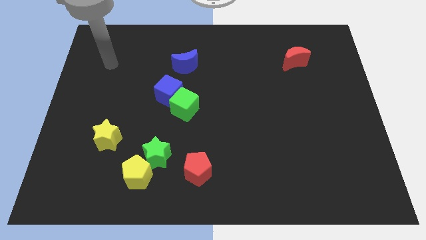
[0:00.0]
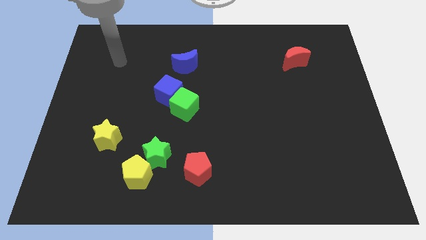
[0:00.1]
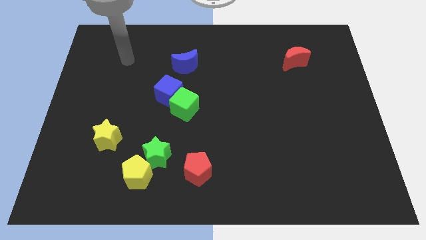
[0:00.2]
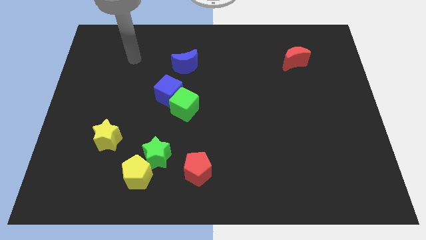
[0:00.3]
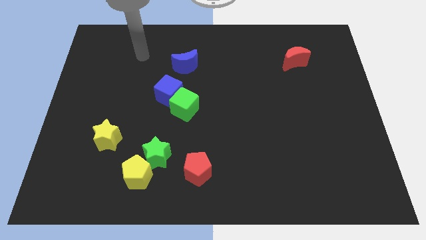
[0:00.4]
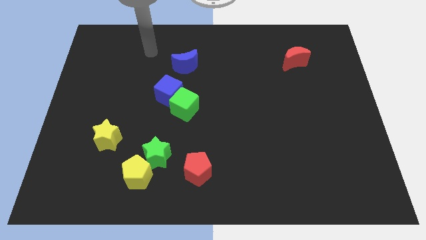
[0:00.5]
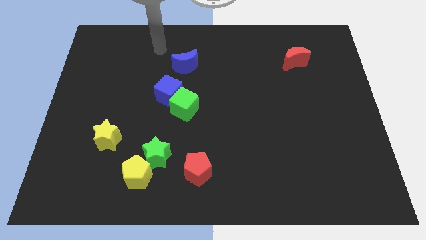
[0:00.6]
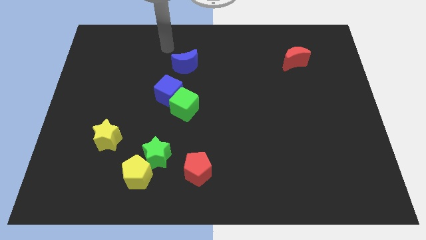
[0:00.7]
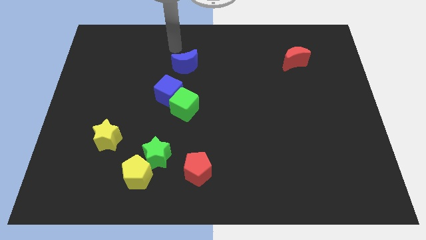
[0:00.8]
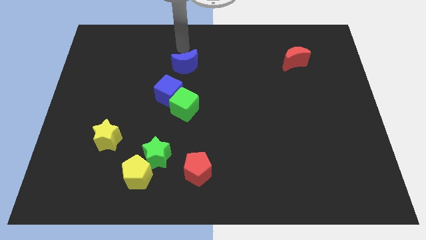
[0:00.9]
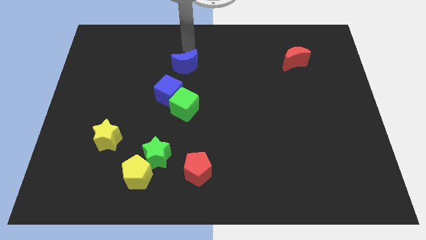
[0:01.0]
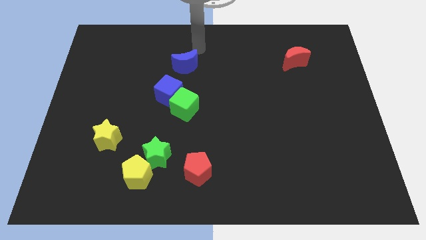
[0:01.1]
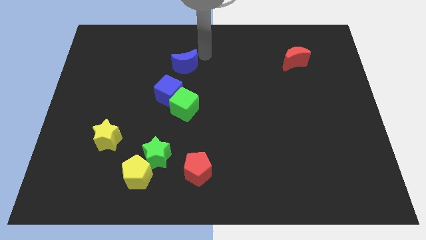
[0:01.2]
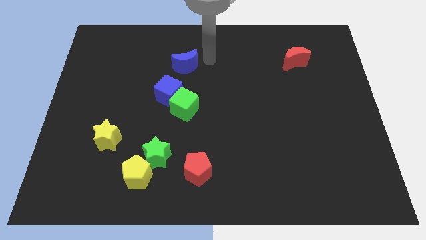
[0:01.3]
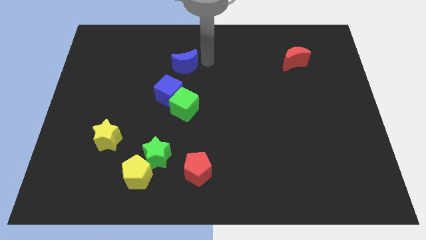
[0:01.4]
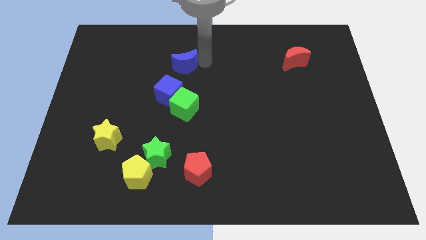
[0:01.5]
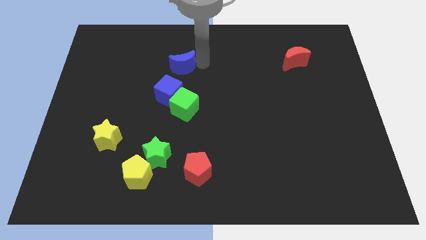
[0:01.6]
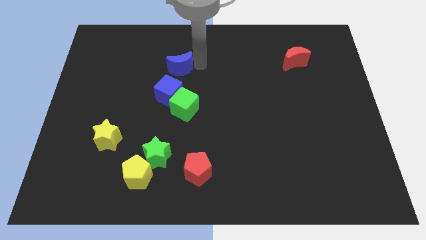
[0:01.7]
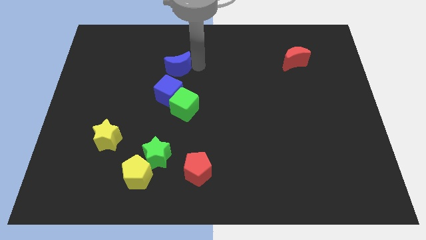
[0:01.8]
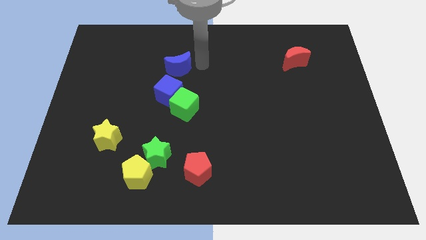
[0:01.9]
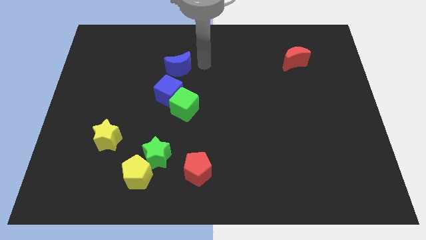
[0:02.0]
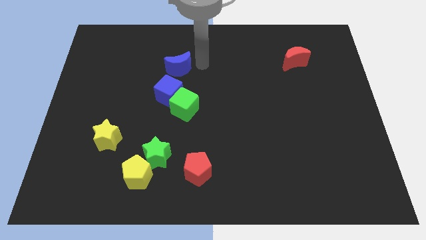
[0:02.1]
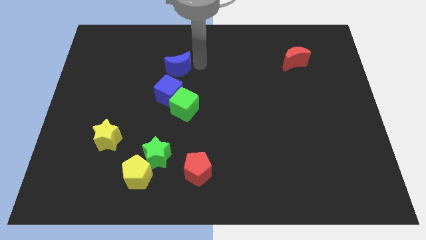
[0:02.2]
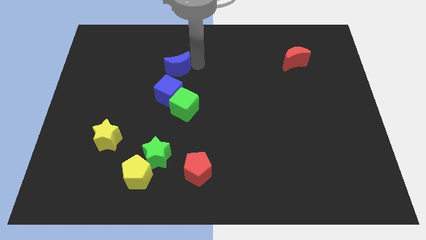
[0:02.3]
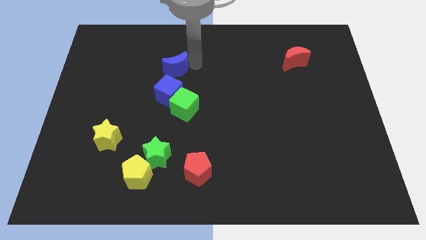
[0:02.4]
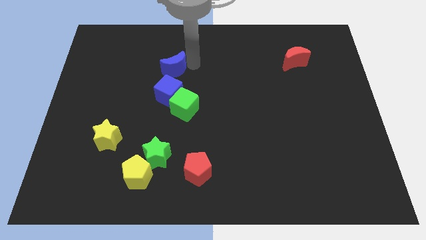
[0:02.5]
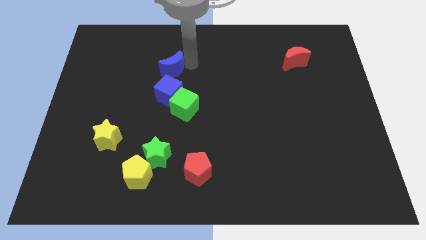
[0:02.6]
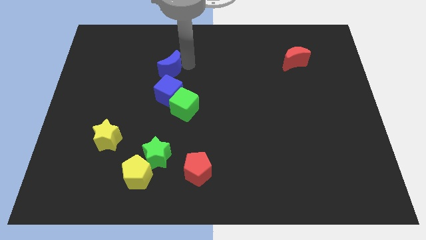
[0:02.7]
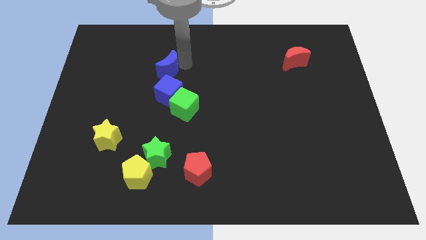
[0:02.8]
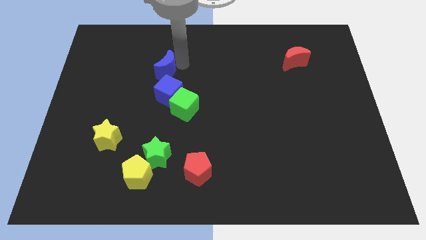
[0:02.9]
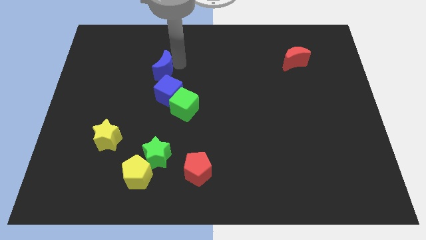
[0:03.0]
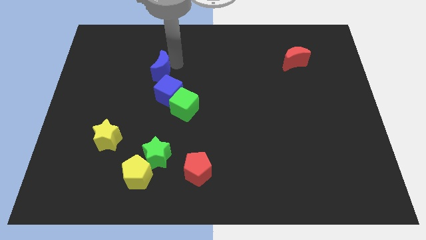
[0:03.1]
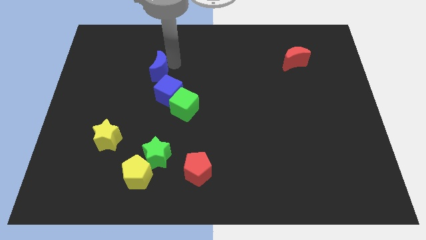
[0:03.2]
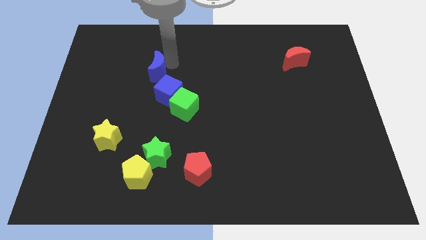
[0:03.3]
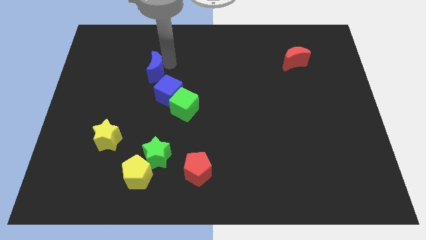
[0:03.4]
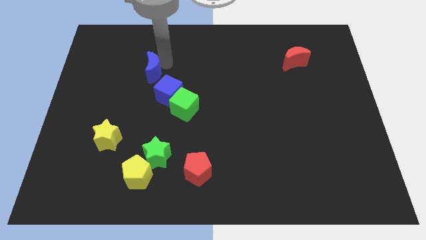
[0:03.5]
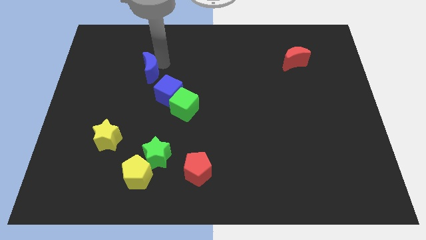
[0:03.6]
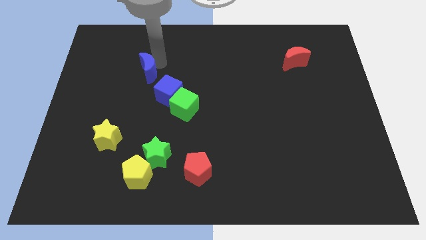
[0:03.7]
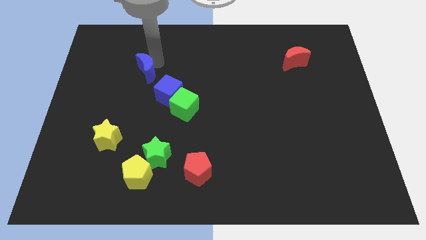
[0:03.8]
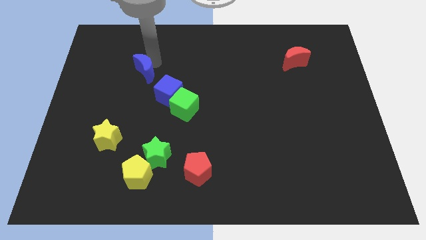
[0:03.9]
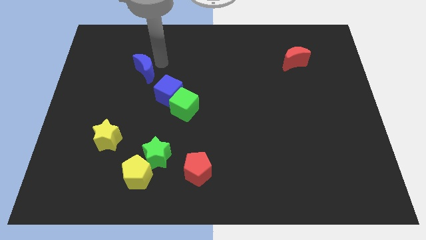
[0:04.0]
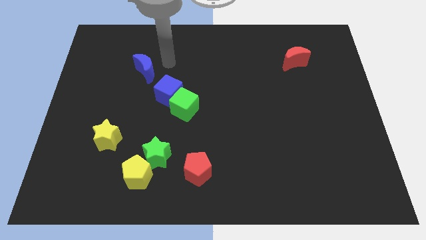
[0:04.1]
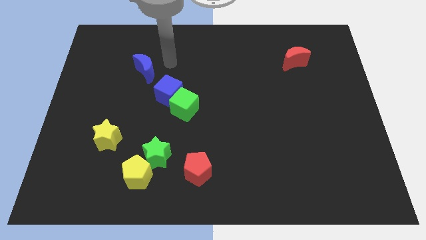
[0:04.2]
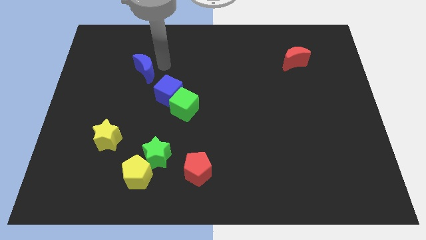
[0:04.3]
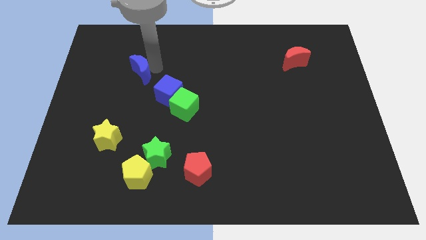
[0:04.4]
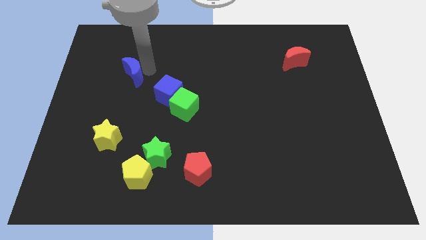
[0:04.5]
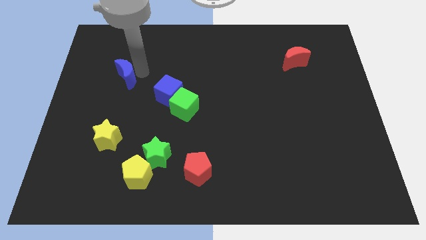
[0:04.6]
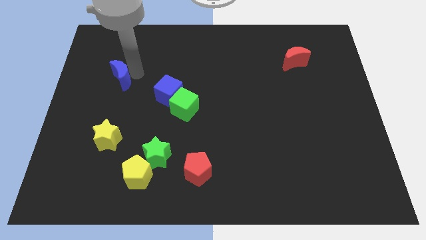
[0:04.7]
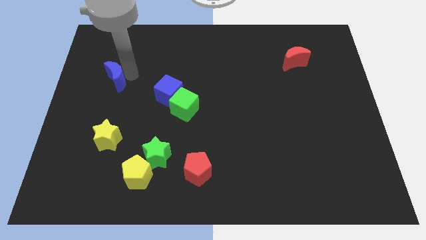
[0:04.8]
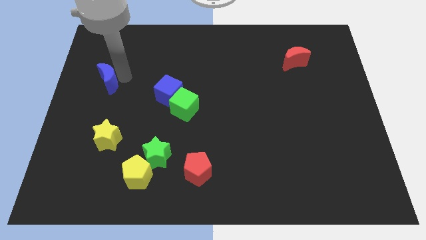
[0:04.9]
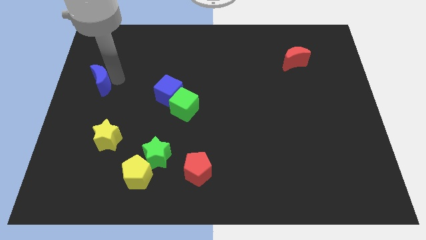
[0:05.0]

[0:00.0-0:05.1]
put the blue moon to the center left

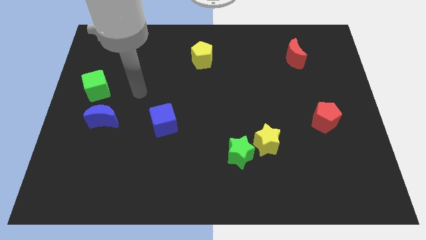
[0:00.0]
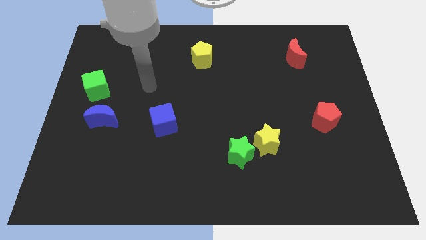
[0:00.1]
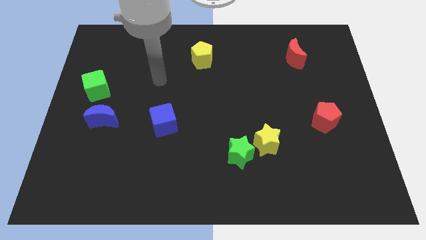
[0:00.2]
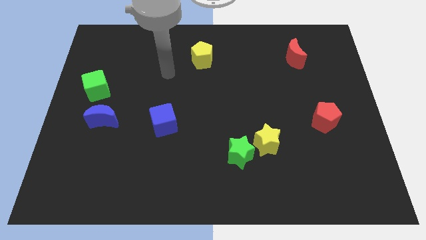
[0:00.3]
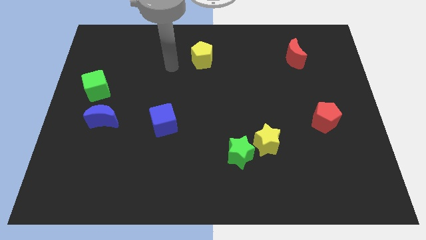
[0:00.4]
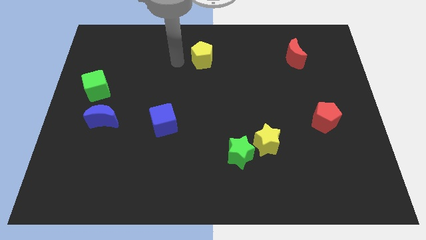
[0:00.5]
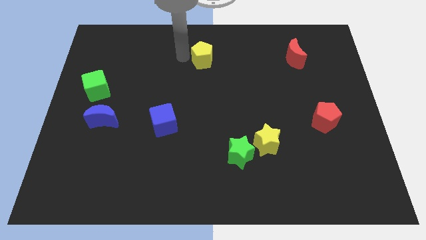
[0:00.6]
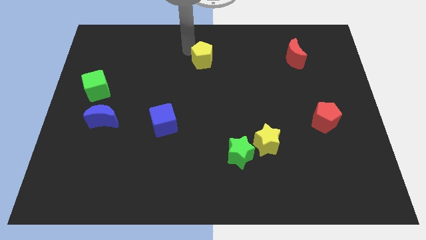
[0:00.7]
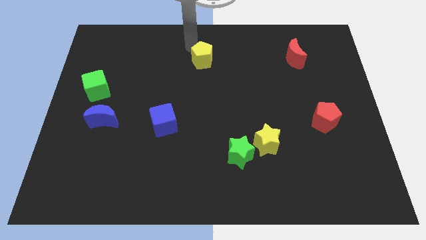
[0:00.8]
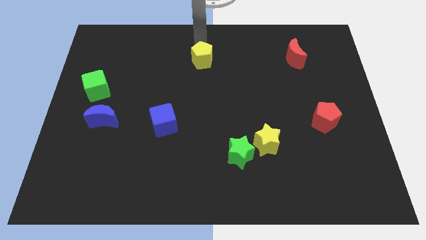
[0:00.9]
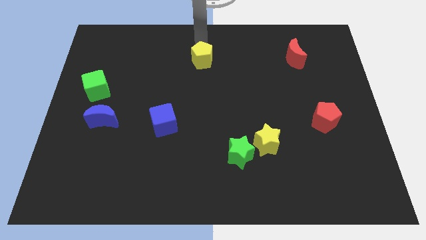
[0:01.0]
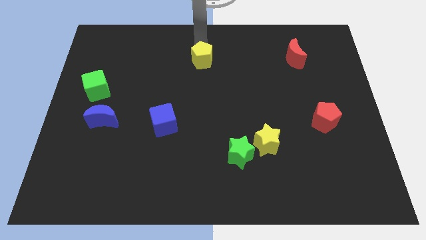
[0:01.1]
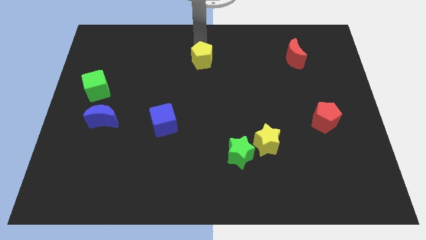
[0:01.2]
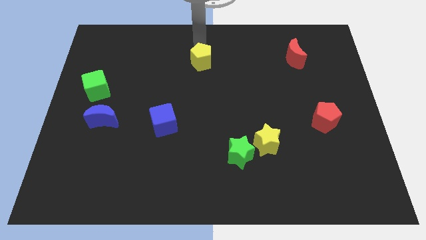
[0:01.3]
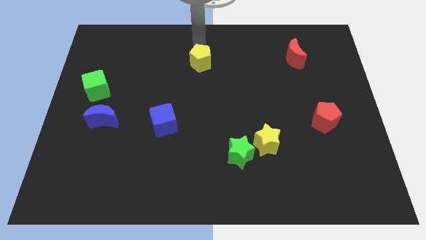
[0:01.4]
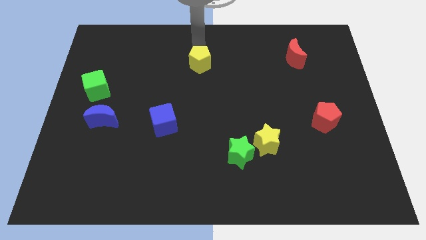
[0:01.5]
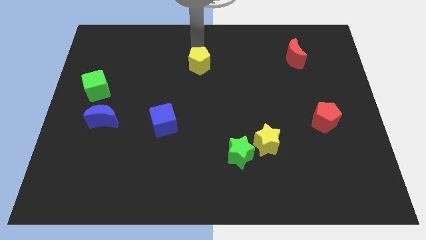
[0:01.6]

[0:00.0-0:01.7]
move the yellow pentagon to the middle
